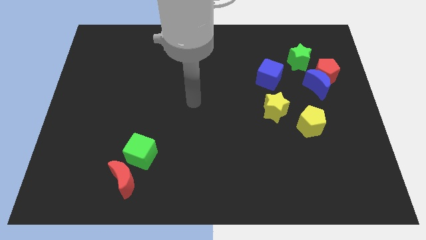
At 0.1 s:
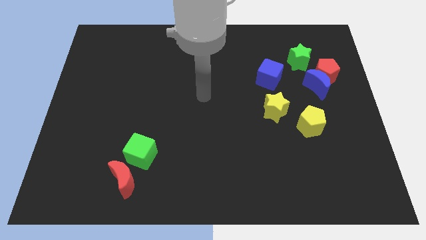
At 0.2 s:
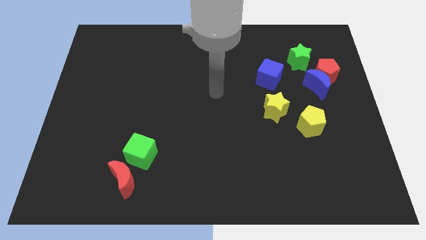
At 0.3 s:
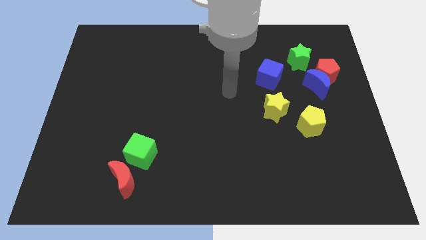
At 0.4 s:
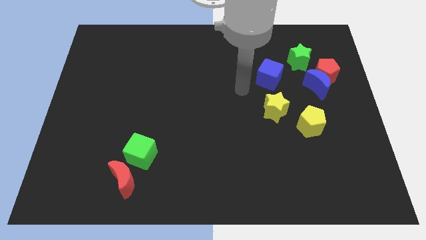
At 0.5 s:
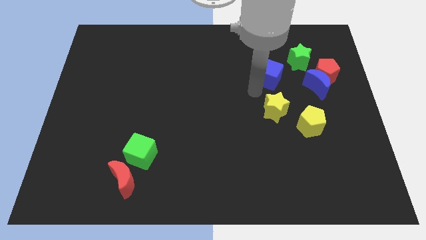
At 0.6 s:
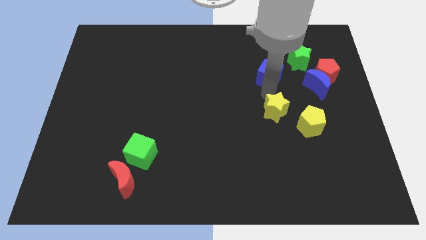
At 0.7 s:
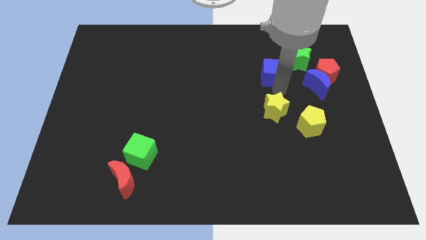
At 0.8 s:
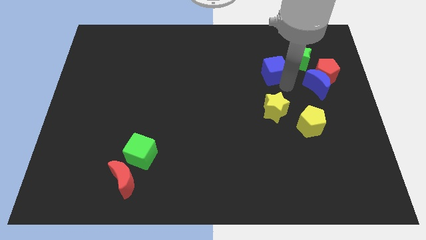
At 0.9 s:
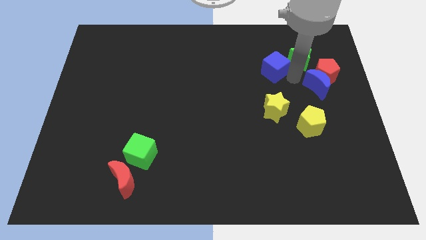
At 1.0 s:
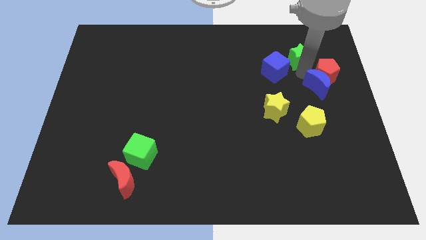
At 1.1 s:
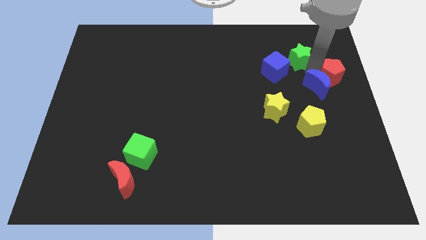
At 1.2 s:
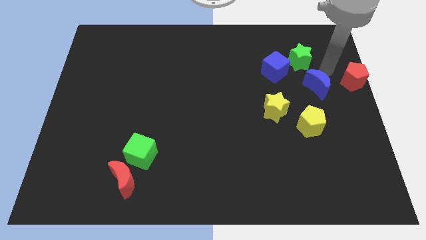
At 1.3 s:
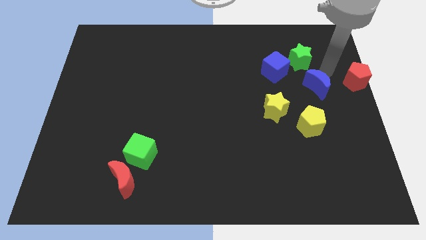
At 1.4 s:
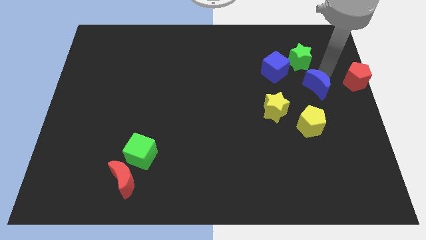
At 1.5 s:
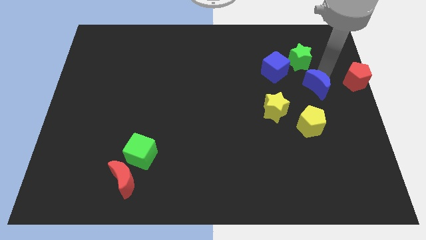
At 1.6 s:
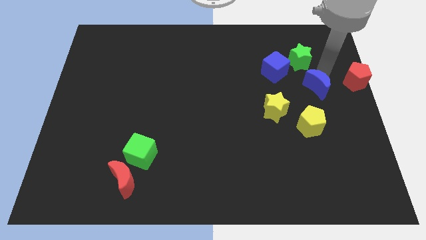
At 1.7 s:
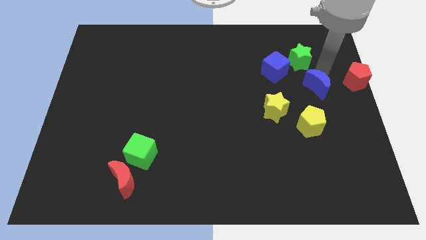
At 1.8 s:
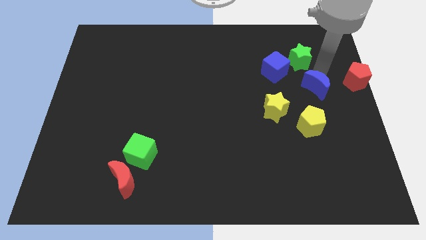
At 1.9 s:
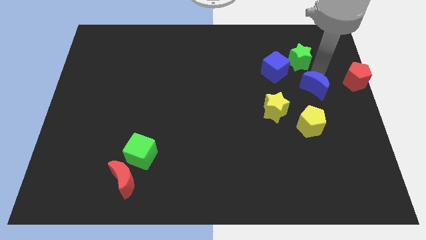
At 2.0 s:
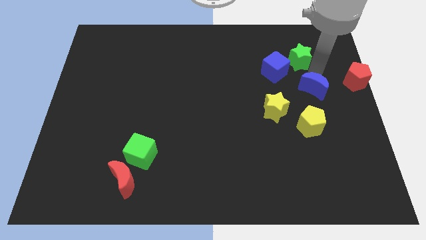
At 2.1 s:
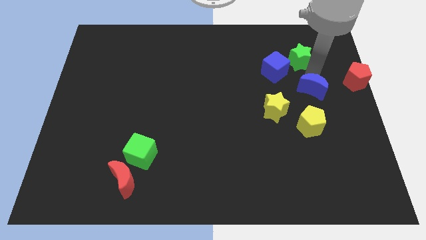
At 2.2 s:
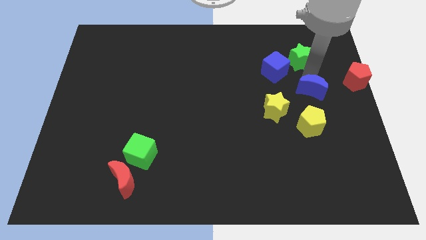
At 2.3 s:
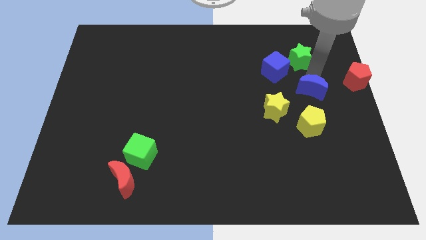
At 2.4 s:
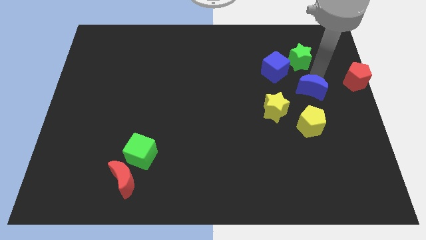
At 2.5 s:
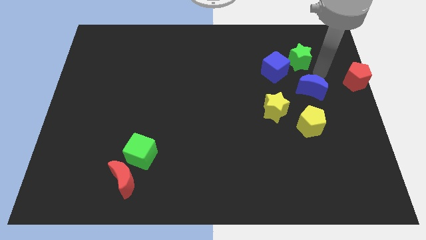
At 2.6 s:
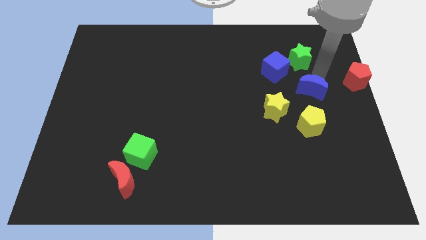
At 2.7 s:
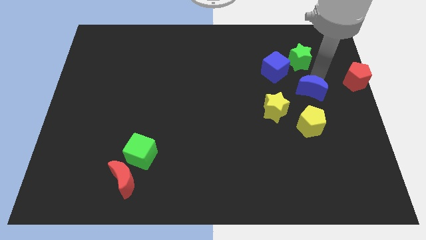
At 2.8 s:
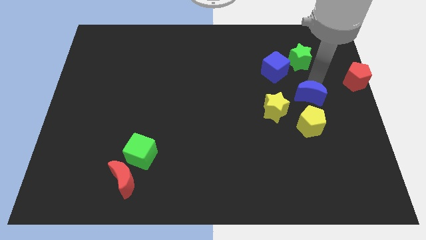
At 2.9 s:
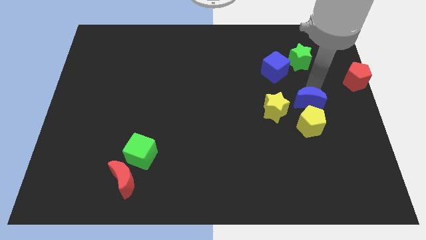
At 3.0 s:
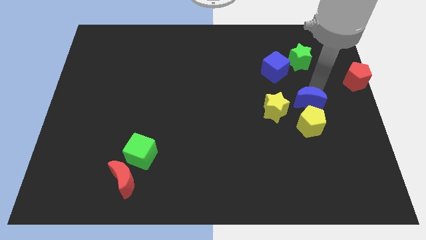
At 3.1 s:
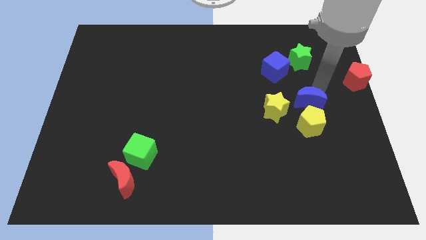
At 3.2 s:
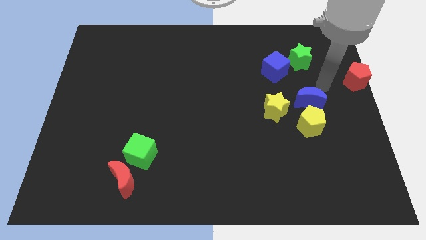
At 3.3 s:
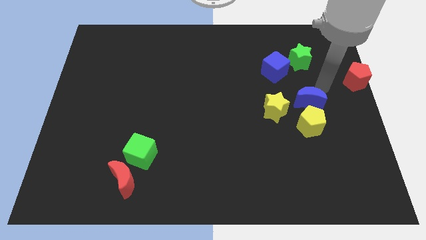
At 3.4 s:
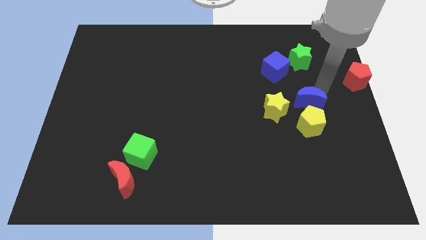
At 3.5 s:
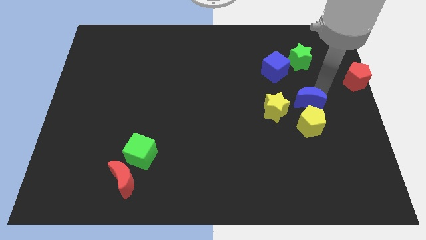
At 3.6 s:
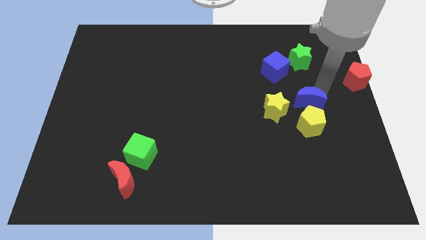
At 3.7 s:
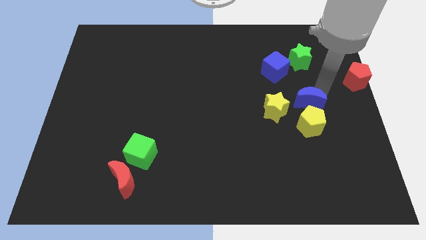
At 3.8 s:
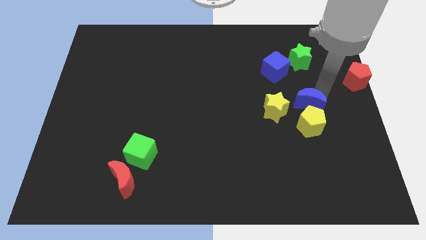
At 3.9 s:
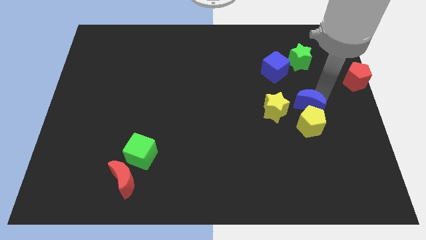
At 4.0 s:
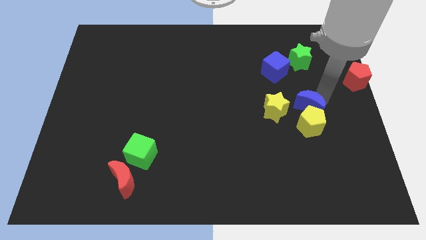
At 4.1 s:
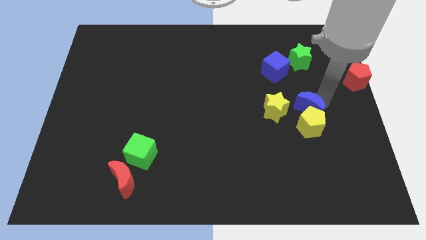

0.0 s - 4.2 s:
push the blue moon diagonally down and to the left a little bit

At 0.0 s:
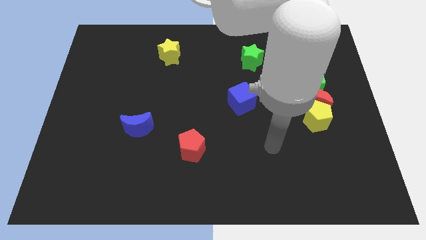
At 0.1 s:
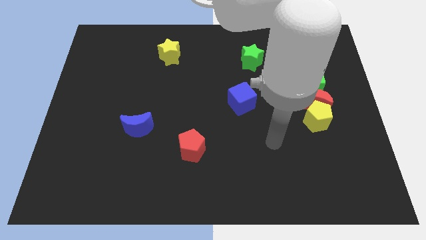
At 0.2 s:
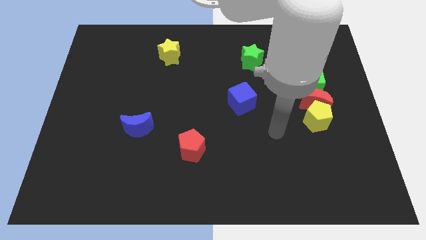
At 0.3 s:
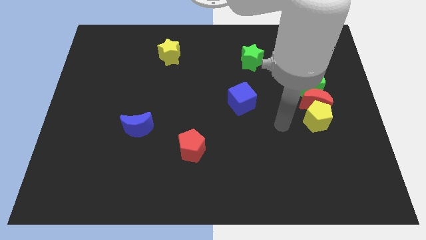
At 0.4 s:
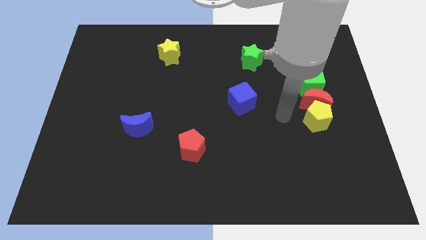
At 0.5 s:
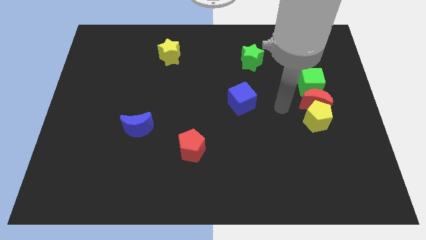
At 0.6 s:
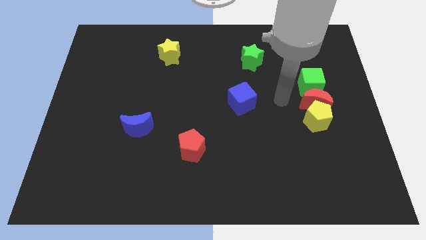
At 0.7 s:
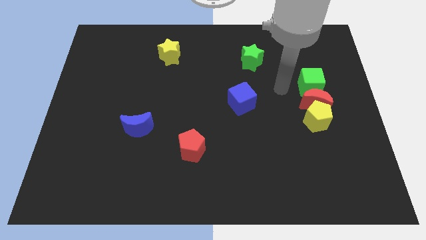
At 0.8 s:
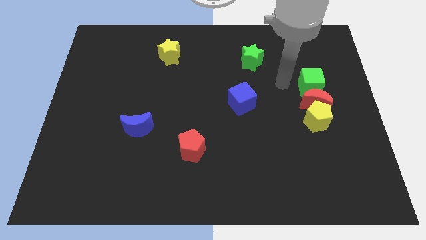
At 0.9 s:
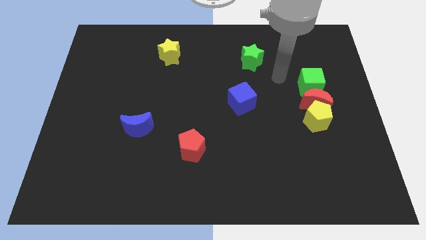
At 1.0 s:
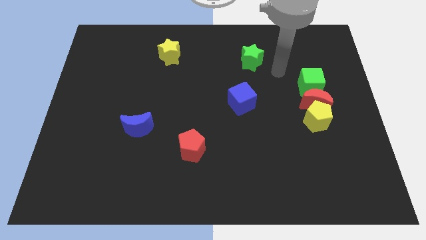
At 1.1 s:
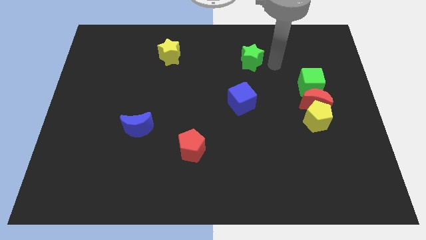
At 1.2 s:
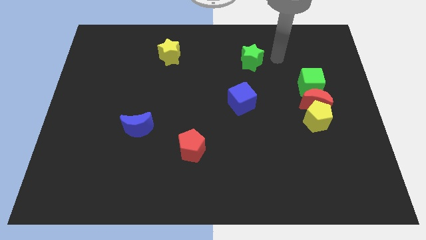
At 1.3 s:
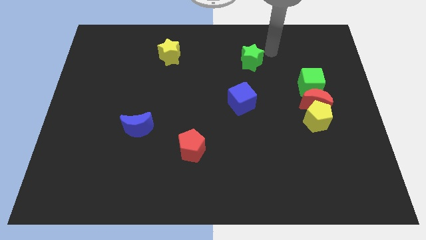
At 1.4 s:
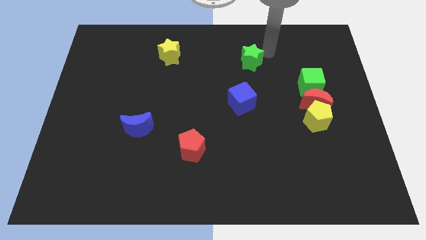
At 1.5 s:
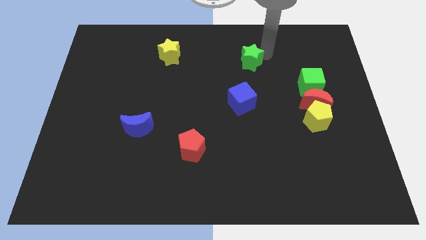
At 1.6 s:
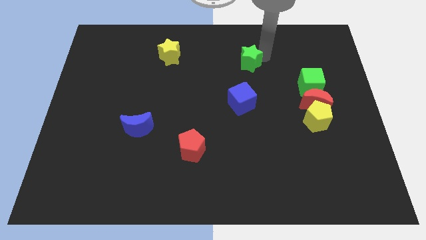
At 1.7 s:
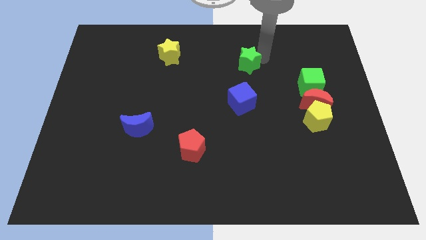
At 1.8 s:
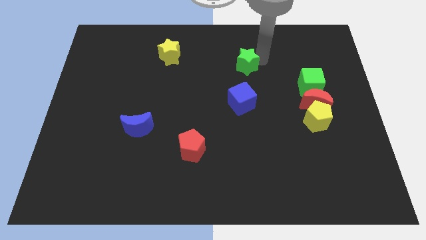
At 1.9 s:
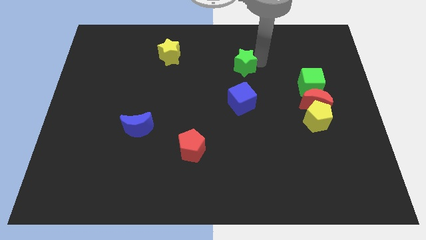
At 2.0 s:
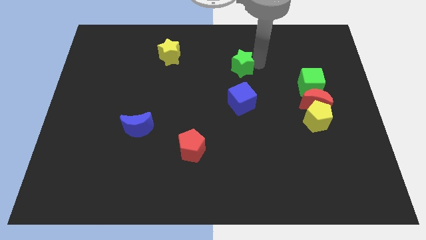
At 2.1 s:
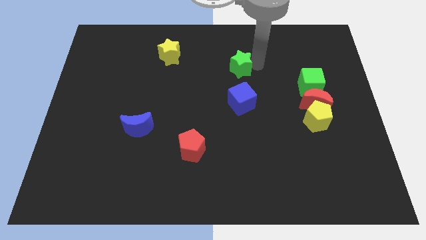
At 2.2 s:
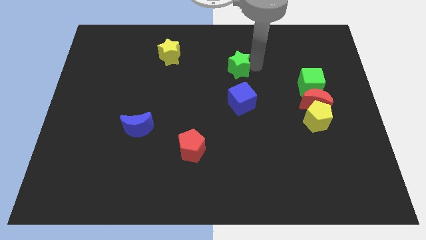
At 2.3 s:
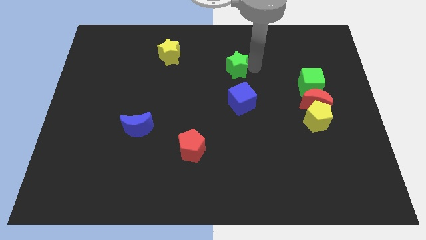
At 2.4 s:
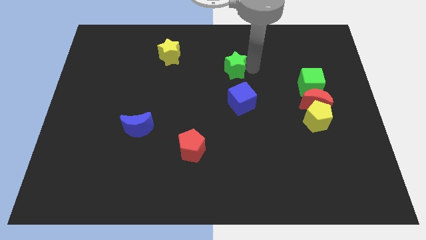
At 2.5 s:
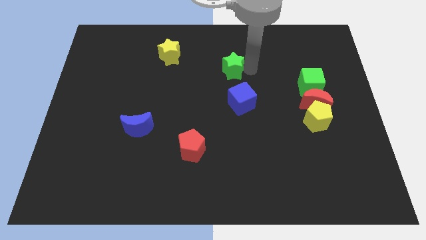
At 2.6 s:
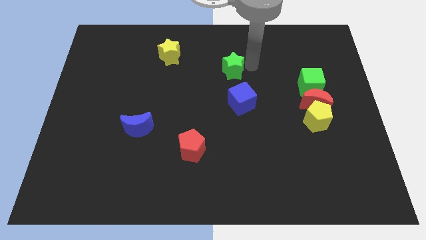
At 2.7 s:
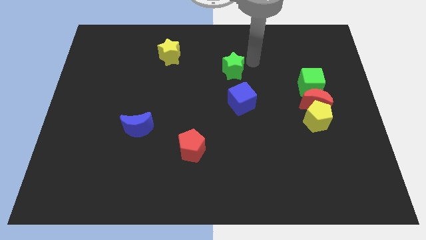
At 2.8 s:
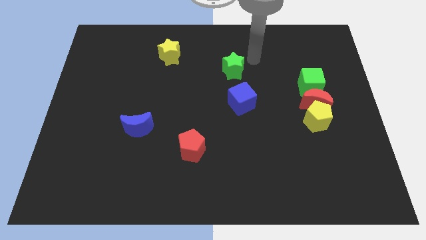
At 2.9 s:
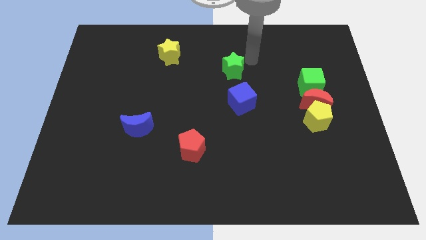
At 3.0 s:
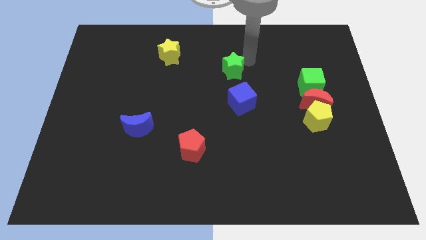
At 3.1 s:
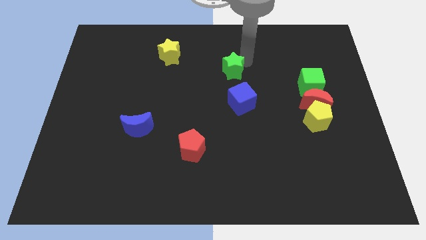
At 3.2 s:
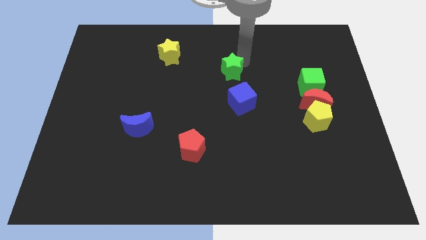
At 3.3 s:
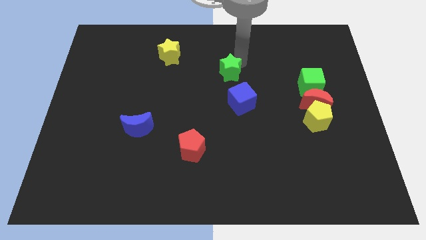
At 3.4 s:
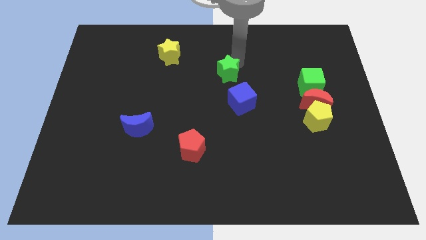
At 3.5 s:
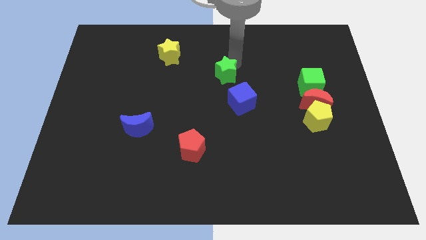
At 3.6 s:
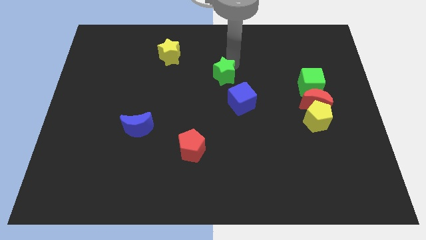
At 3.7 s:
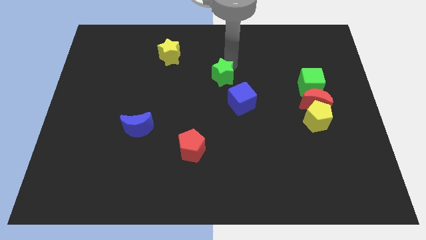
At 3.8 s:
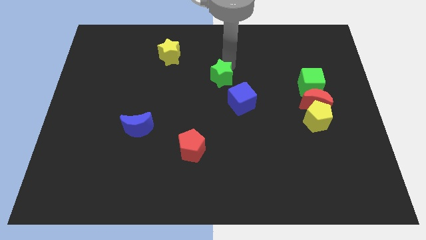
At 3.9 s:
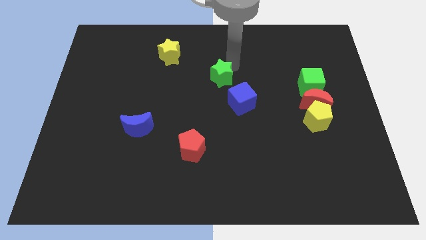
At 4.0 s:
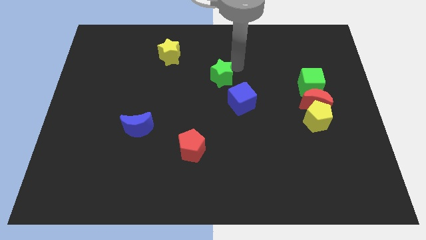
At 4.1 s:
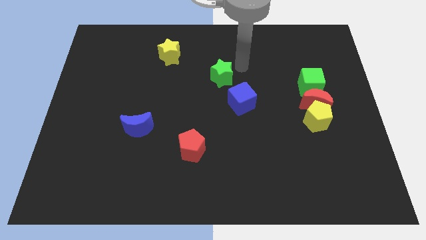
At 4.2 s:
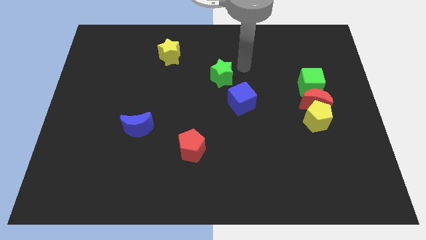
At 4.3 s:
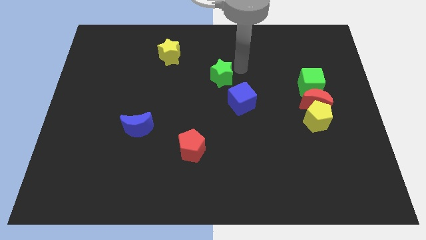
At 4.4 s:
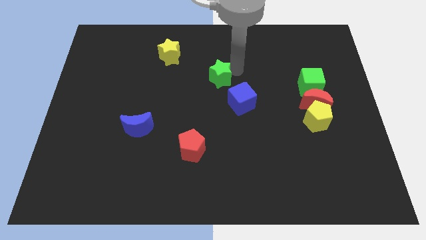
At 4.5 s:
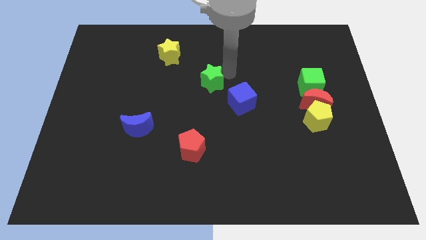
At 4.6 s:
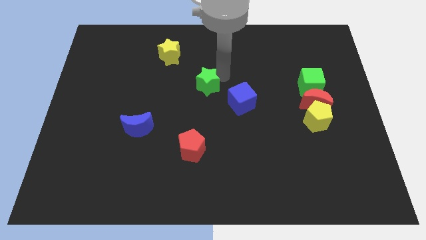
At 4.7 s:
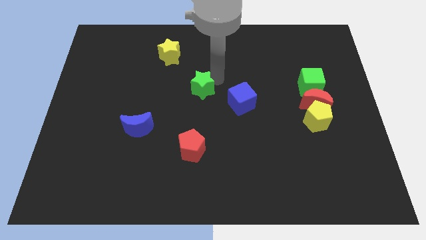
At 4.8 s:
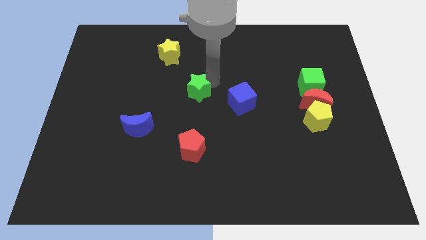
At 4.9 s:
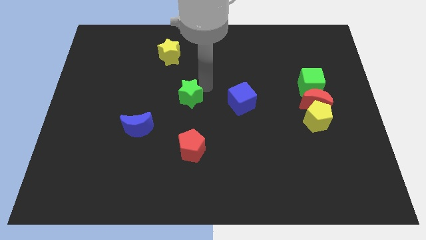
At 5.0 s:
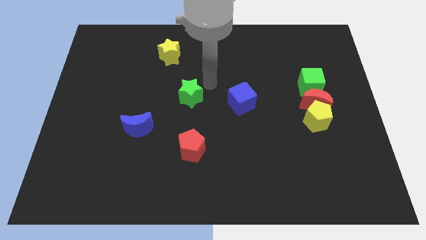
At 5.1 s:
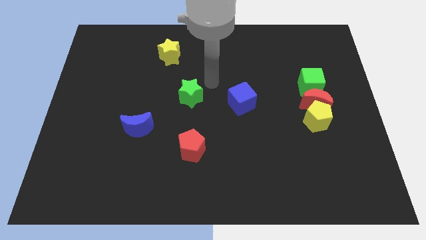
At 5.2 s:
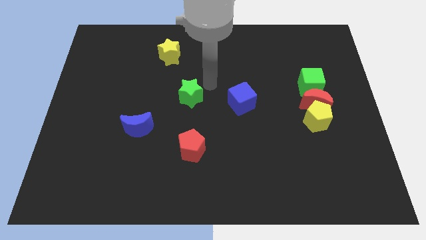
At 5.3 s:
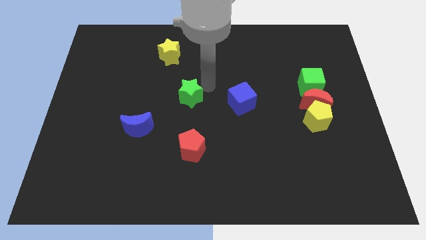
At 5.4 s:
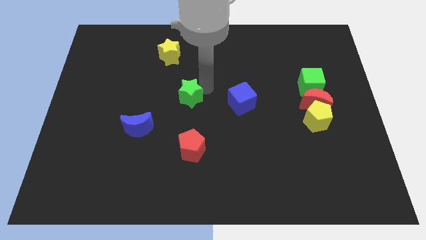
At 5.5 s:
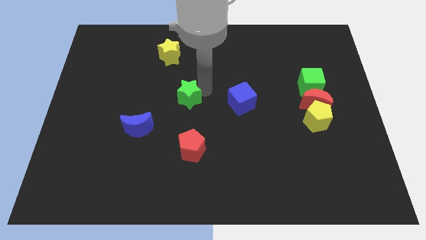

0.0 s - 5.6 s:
push the green star downwards and to the left diagonally
